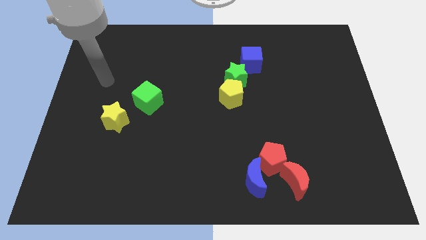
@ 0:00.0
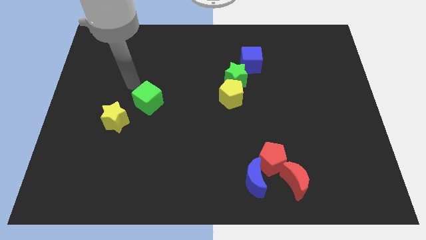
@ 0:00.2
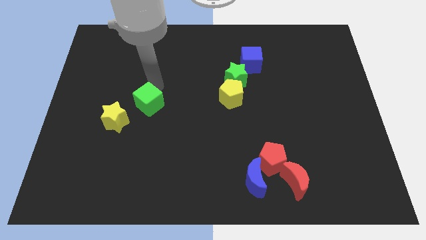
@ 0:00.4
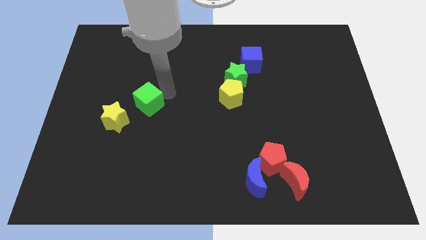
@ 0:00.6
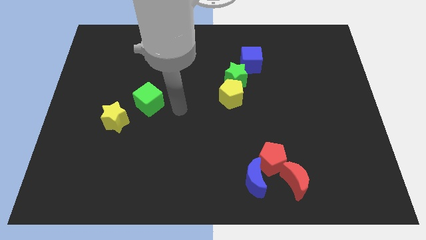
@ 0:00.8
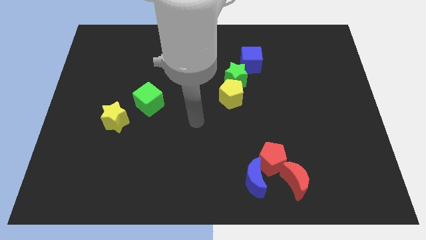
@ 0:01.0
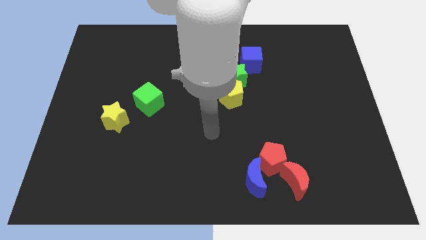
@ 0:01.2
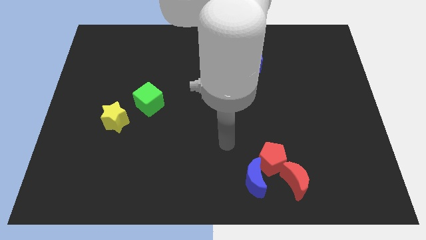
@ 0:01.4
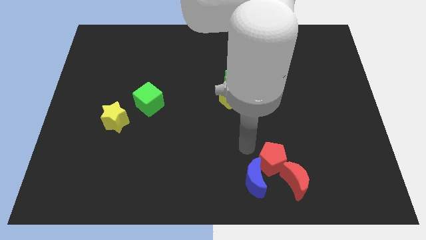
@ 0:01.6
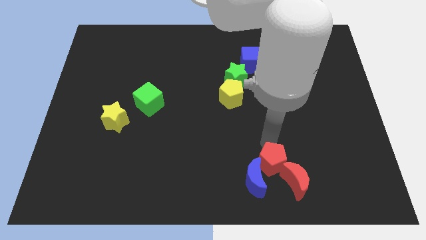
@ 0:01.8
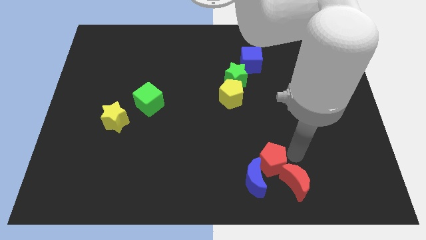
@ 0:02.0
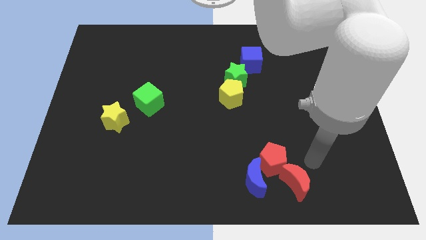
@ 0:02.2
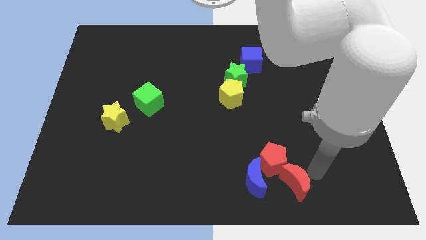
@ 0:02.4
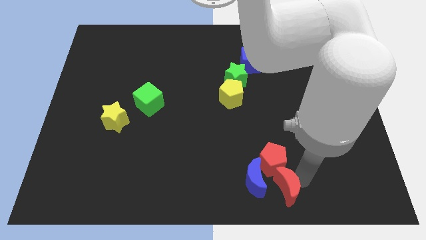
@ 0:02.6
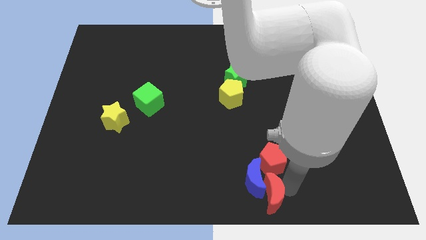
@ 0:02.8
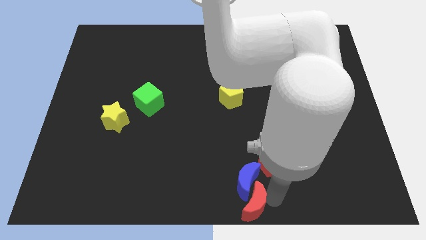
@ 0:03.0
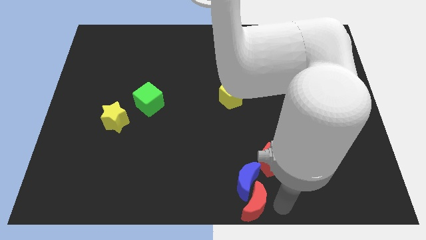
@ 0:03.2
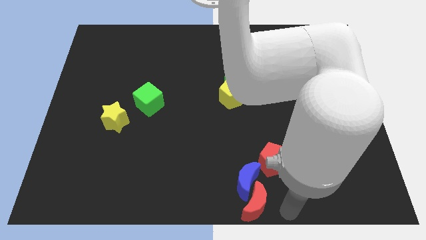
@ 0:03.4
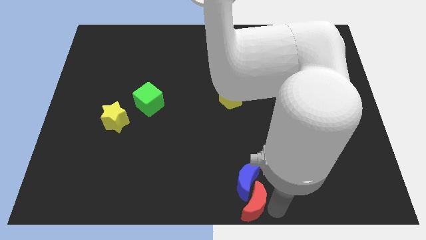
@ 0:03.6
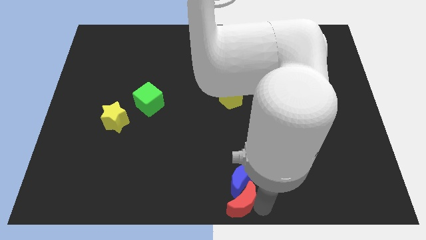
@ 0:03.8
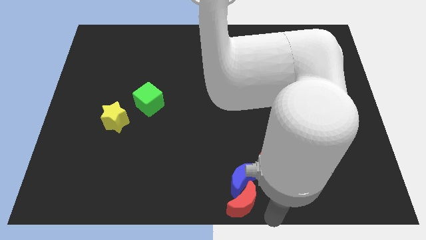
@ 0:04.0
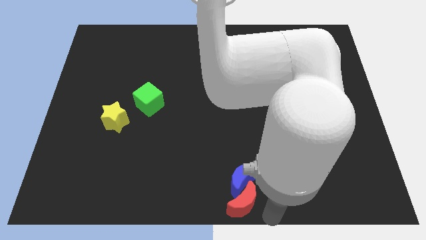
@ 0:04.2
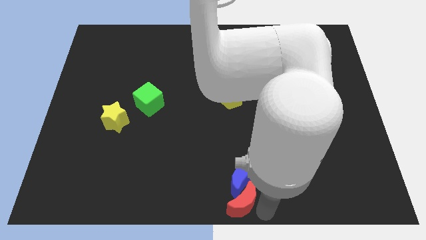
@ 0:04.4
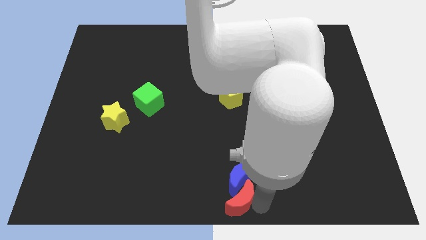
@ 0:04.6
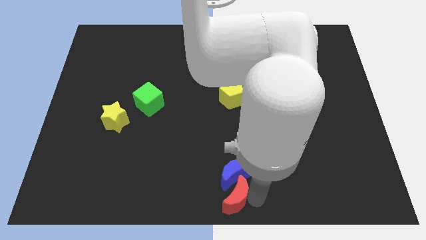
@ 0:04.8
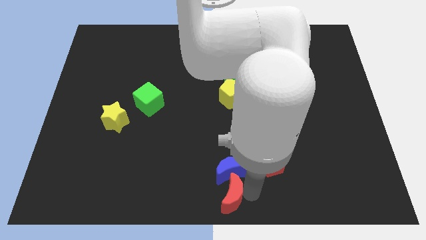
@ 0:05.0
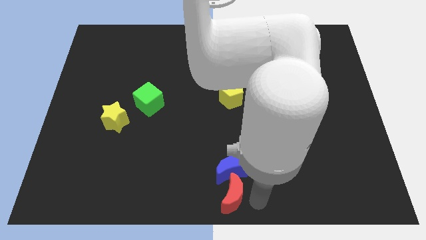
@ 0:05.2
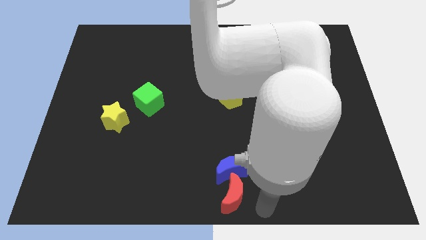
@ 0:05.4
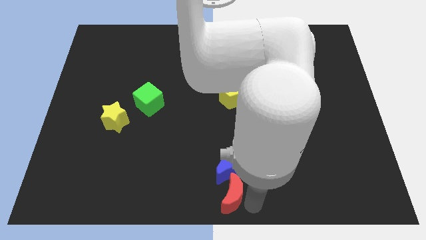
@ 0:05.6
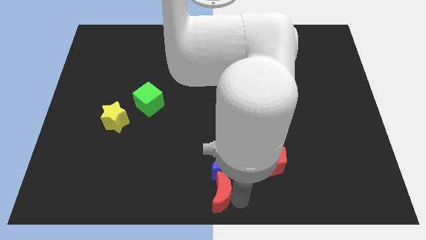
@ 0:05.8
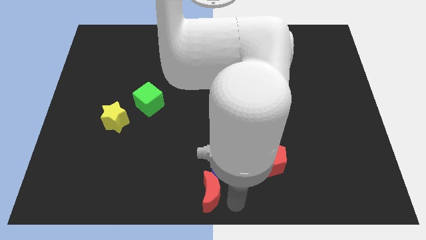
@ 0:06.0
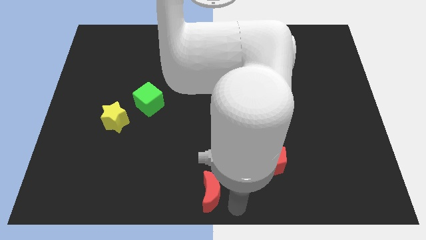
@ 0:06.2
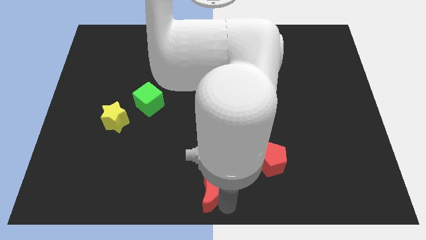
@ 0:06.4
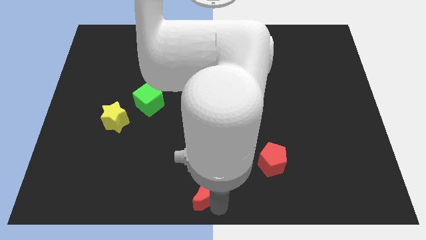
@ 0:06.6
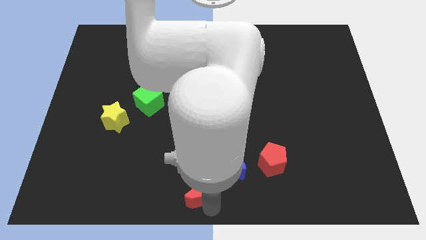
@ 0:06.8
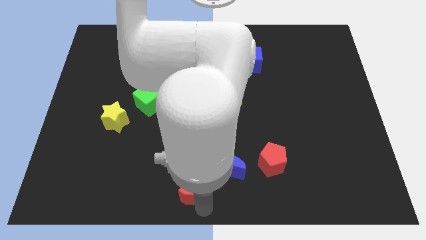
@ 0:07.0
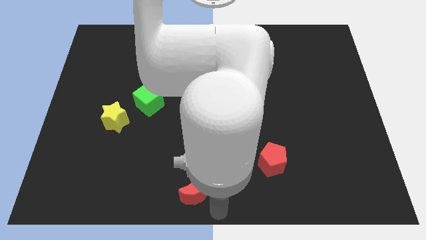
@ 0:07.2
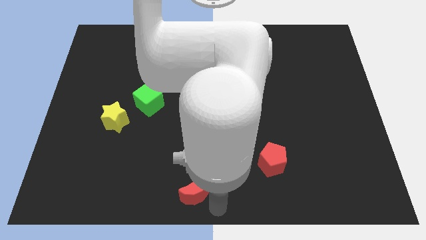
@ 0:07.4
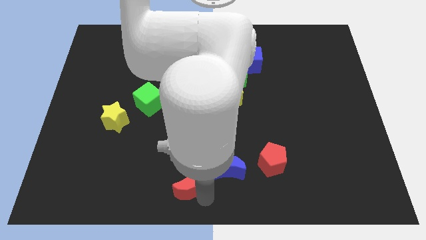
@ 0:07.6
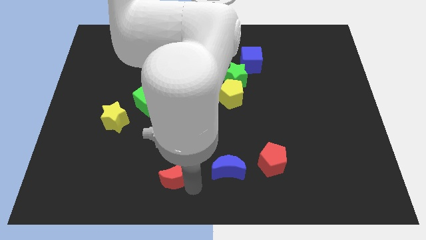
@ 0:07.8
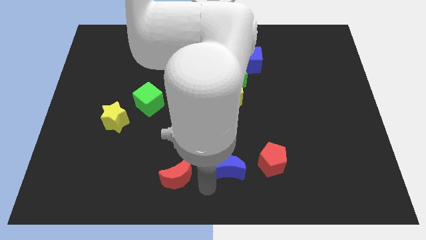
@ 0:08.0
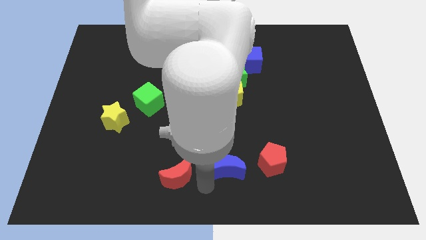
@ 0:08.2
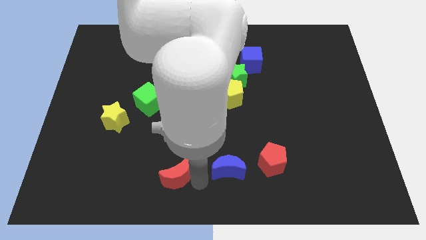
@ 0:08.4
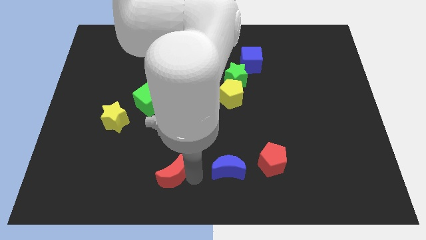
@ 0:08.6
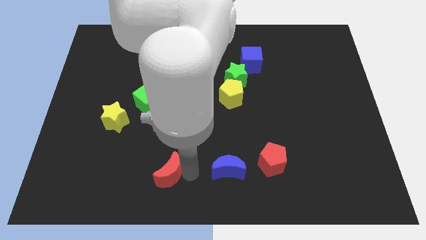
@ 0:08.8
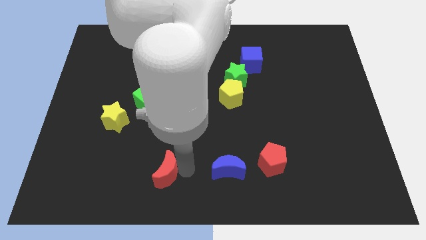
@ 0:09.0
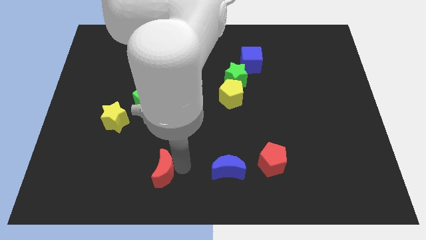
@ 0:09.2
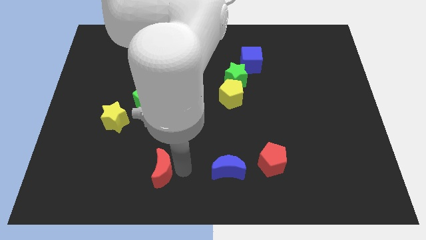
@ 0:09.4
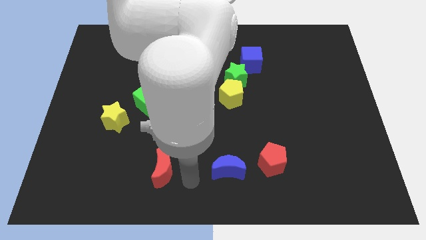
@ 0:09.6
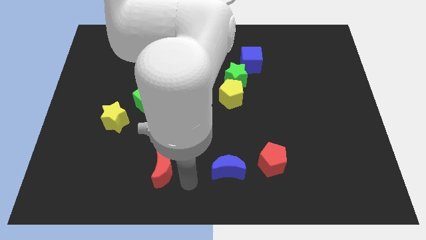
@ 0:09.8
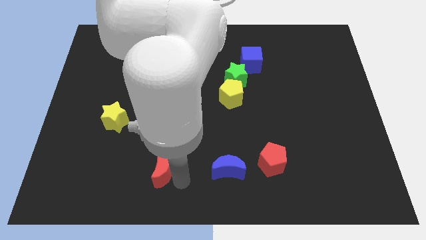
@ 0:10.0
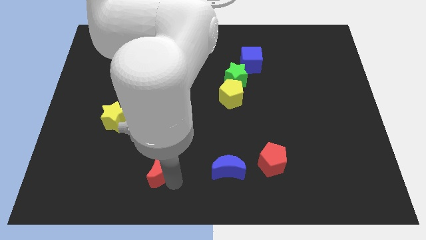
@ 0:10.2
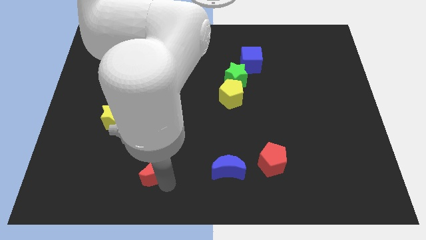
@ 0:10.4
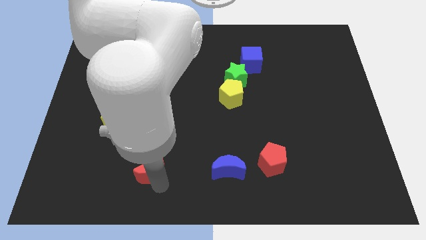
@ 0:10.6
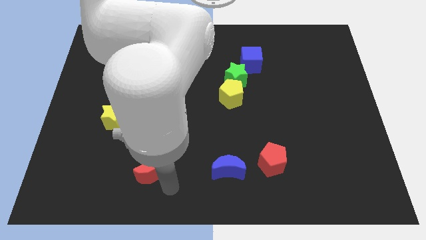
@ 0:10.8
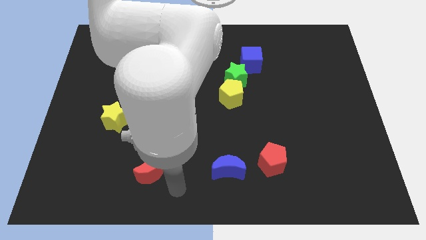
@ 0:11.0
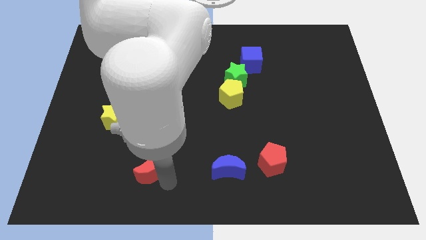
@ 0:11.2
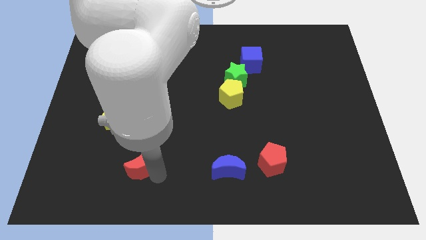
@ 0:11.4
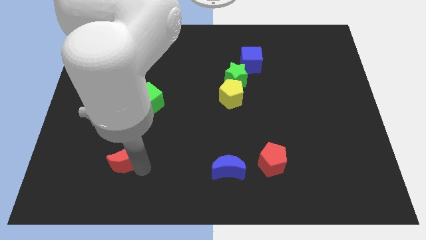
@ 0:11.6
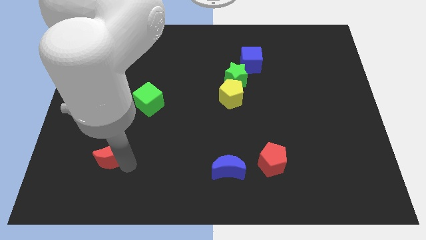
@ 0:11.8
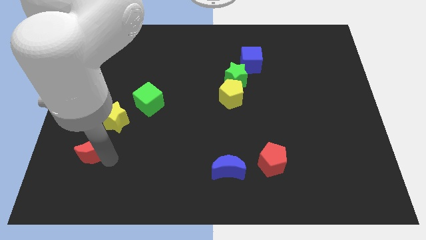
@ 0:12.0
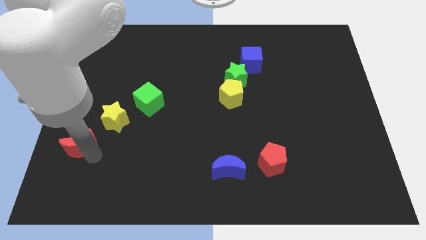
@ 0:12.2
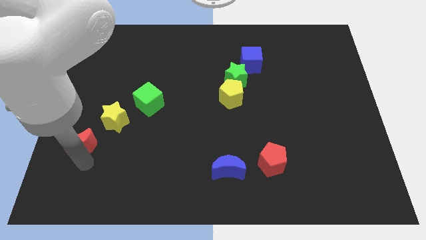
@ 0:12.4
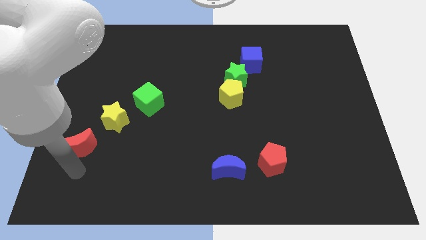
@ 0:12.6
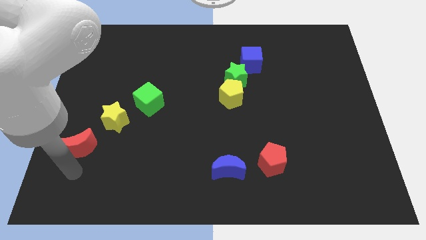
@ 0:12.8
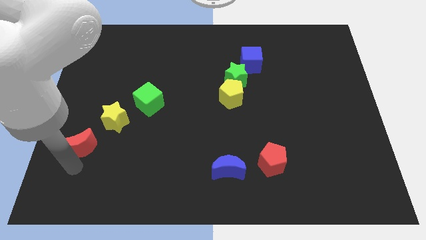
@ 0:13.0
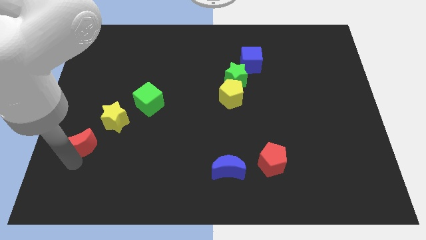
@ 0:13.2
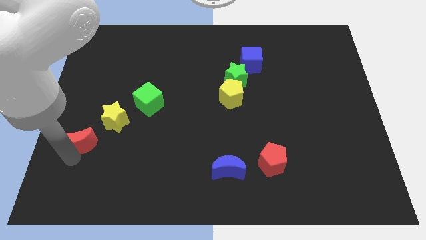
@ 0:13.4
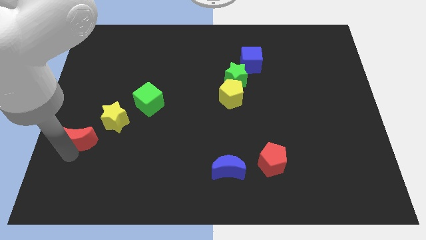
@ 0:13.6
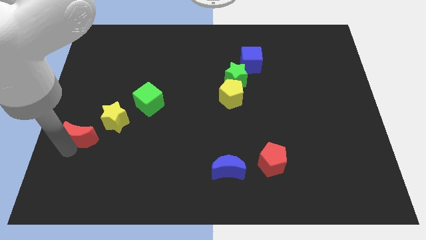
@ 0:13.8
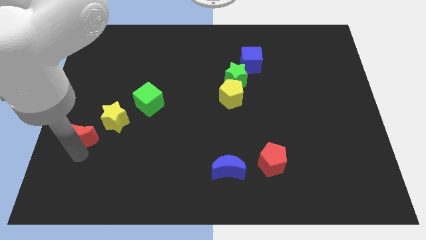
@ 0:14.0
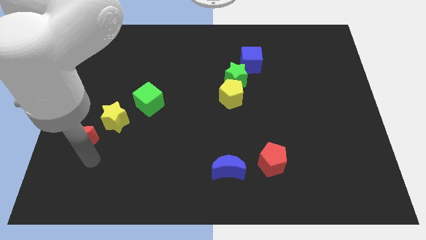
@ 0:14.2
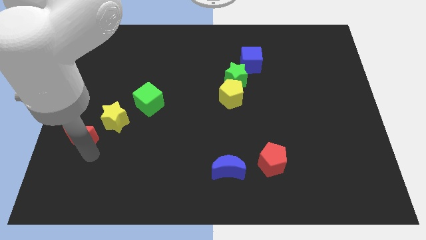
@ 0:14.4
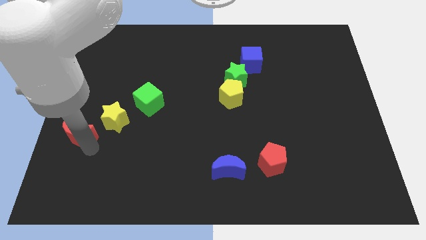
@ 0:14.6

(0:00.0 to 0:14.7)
slide the red moon to the center left
